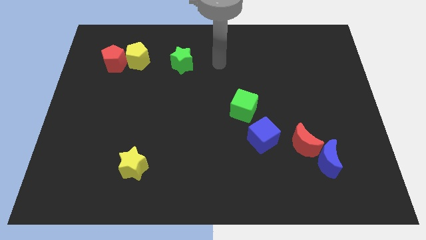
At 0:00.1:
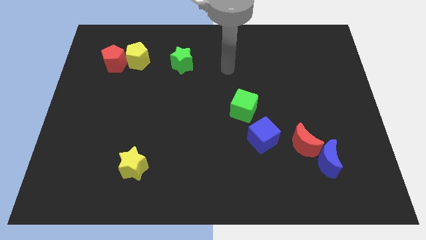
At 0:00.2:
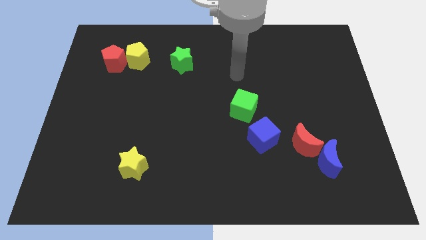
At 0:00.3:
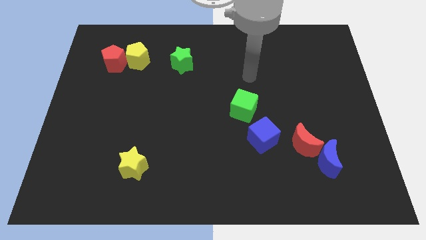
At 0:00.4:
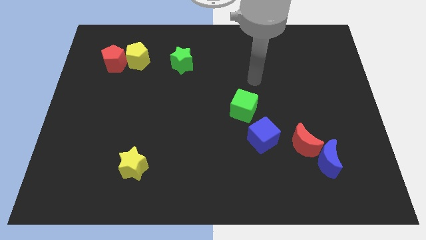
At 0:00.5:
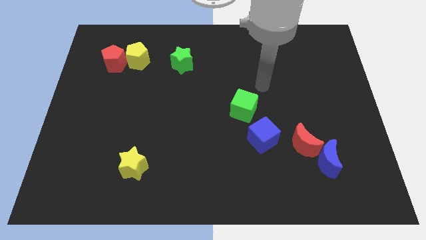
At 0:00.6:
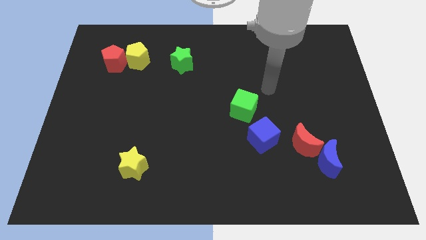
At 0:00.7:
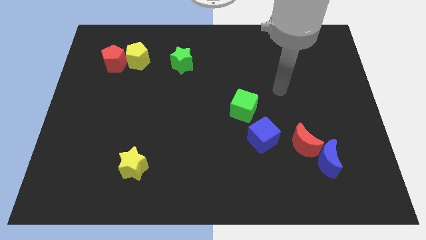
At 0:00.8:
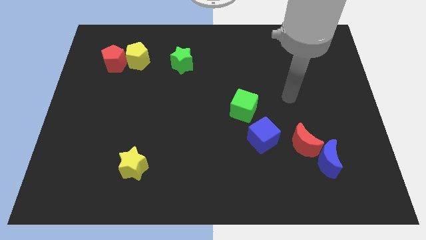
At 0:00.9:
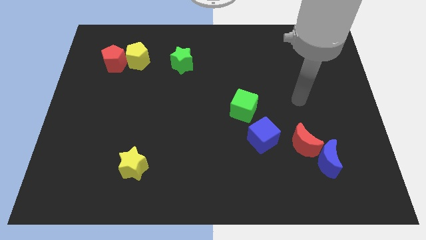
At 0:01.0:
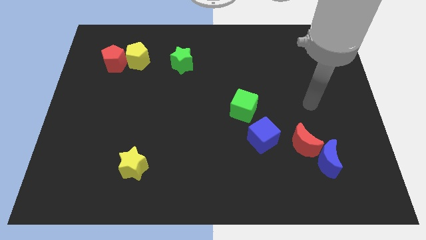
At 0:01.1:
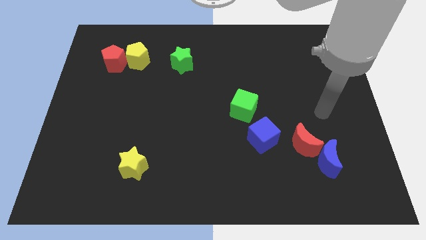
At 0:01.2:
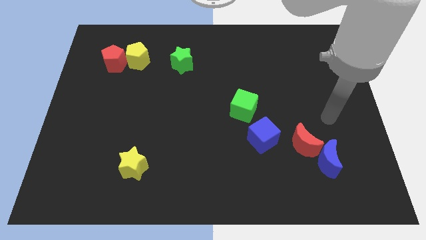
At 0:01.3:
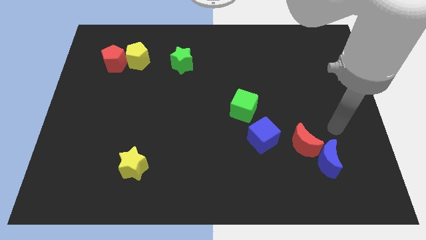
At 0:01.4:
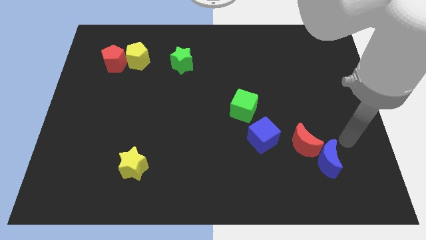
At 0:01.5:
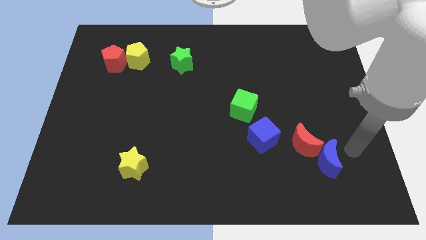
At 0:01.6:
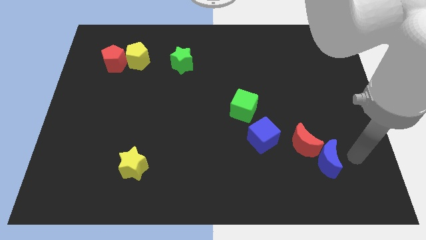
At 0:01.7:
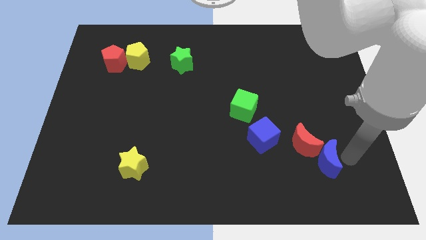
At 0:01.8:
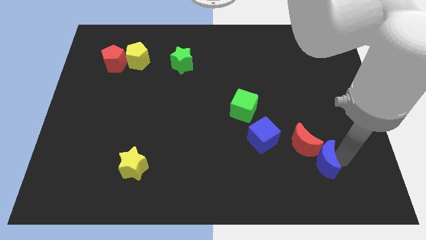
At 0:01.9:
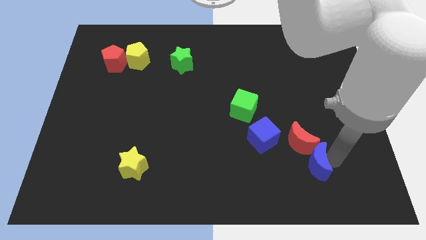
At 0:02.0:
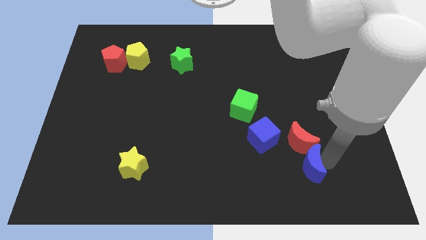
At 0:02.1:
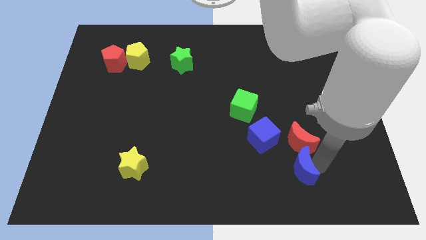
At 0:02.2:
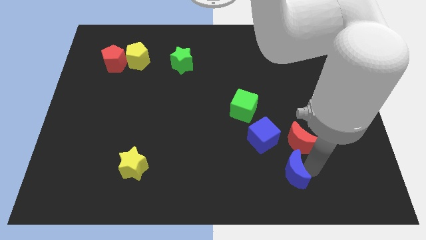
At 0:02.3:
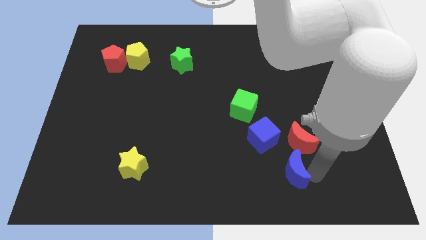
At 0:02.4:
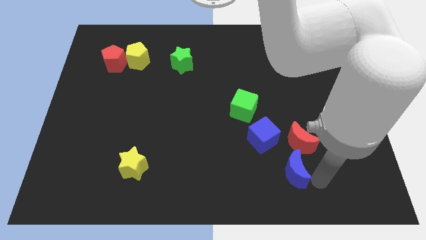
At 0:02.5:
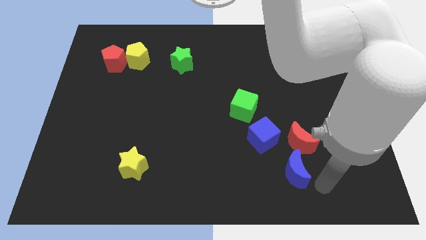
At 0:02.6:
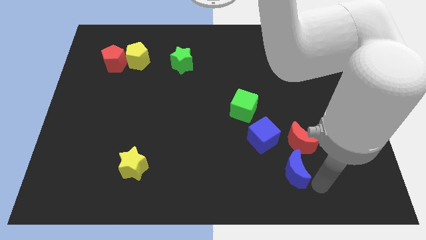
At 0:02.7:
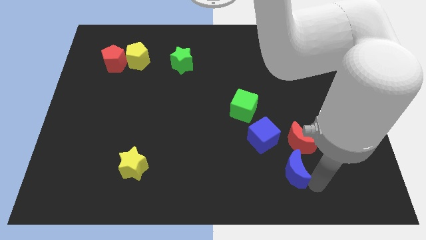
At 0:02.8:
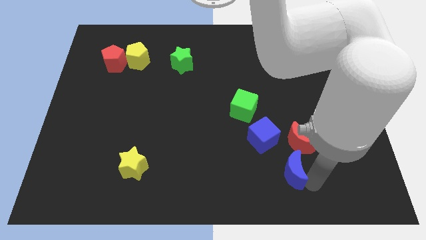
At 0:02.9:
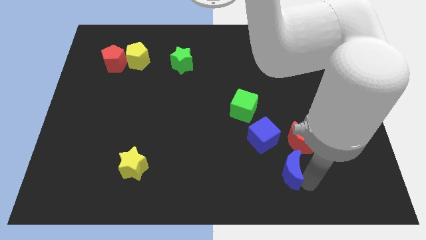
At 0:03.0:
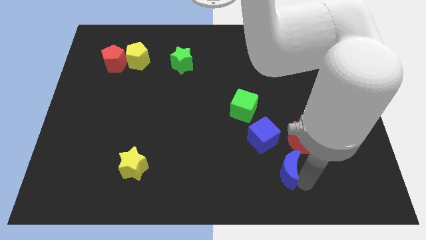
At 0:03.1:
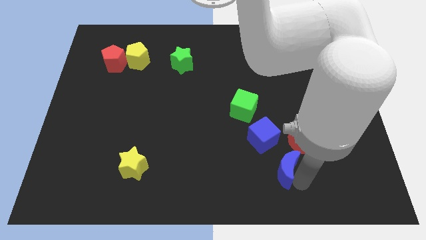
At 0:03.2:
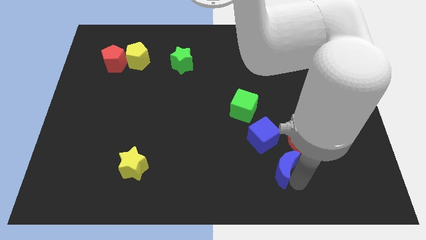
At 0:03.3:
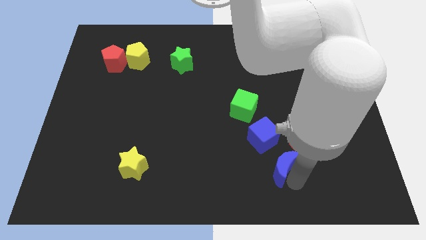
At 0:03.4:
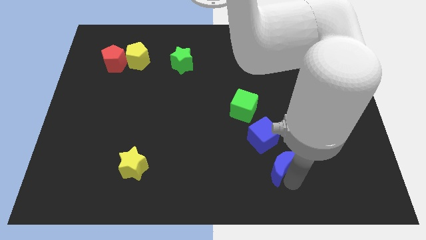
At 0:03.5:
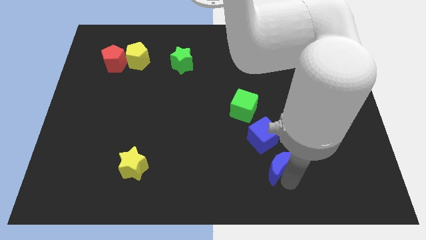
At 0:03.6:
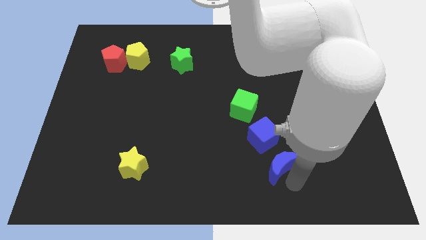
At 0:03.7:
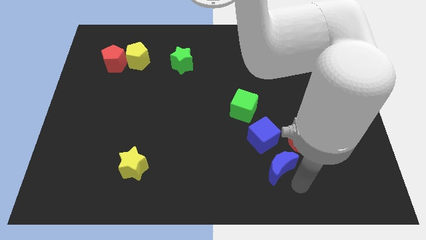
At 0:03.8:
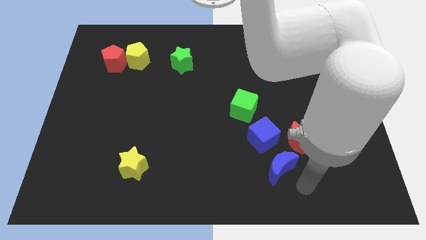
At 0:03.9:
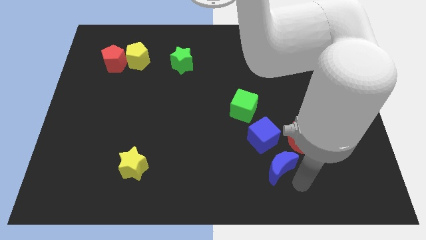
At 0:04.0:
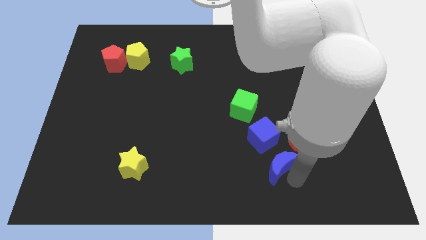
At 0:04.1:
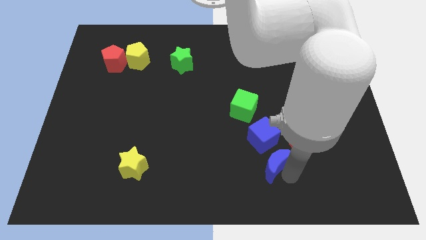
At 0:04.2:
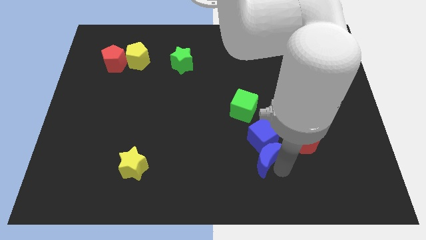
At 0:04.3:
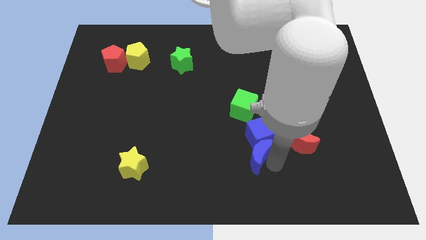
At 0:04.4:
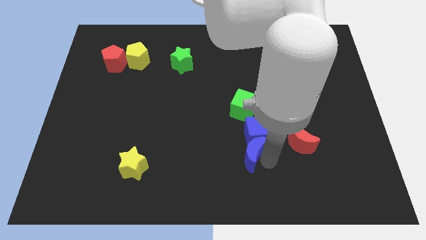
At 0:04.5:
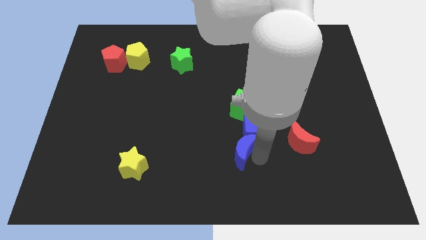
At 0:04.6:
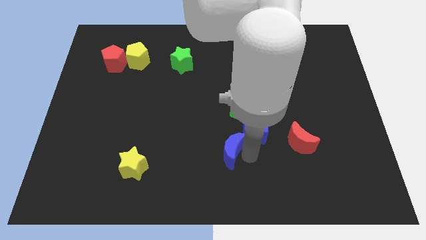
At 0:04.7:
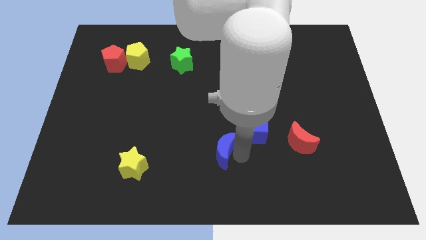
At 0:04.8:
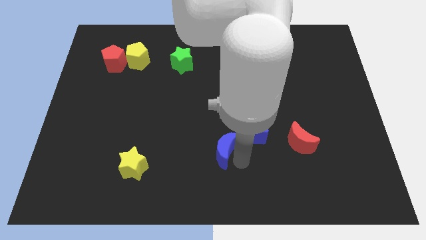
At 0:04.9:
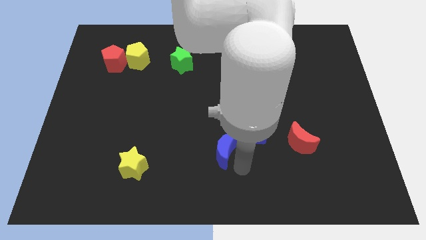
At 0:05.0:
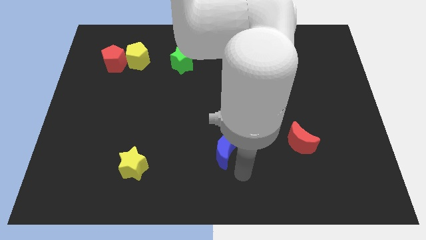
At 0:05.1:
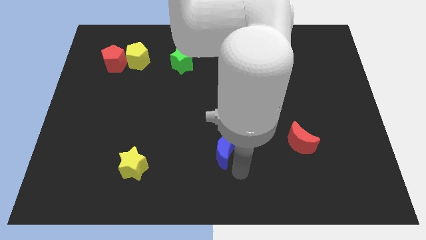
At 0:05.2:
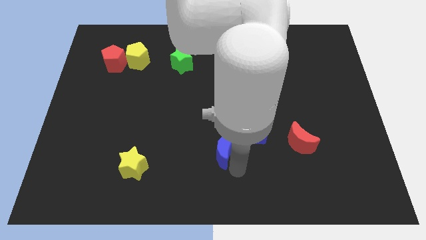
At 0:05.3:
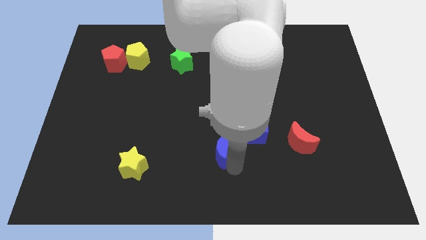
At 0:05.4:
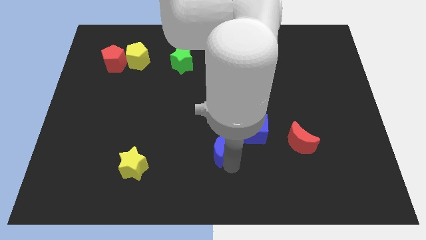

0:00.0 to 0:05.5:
slide the blue moon to the left of the blue cube

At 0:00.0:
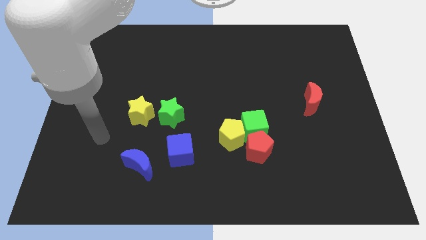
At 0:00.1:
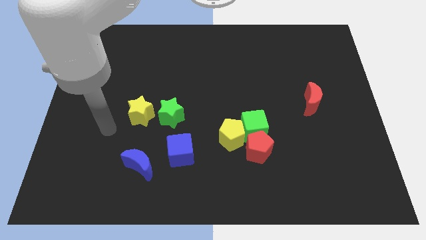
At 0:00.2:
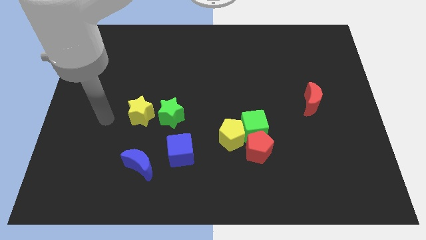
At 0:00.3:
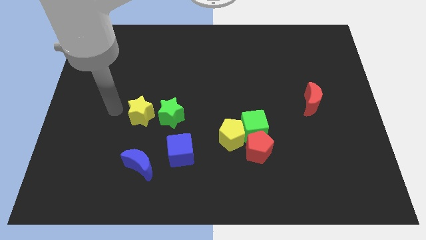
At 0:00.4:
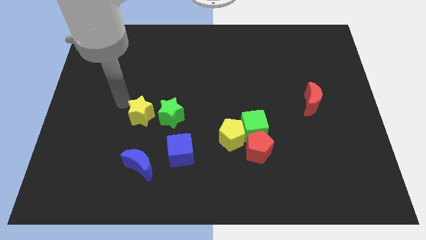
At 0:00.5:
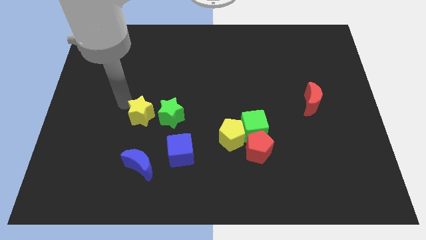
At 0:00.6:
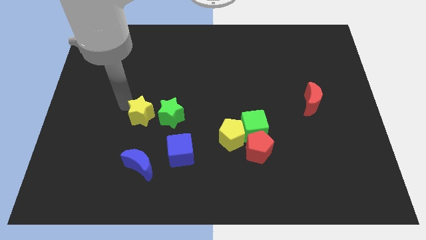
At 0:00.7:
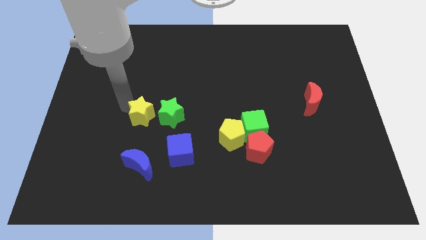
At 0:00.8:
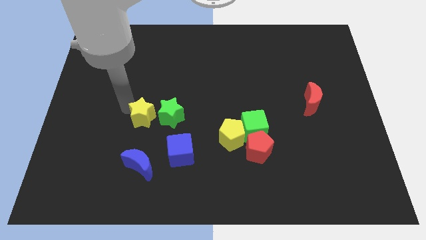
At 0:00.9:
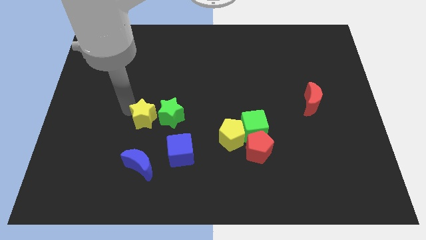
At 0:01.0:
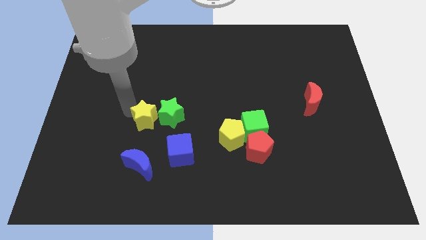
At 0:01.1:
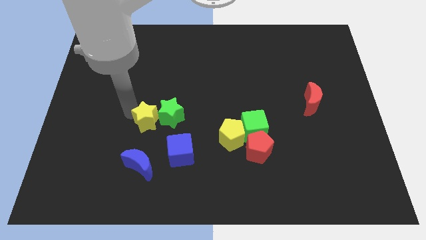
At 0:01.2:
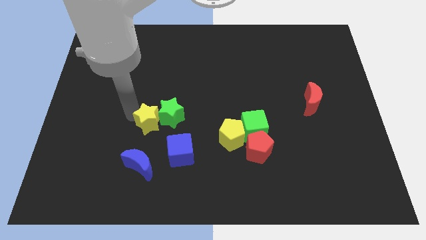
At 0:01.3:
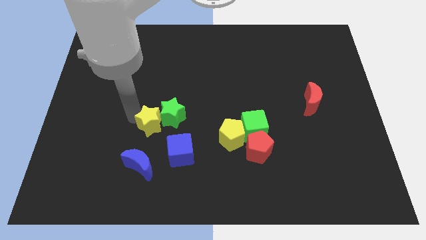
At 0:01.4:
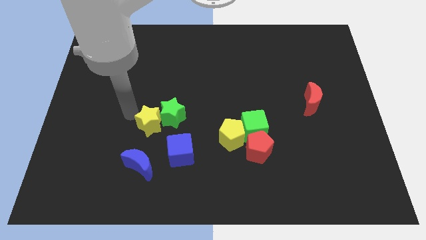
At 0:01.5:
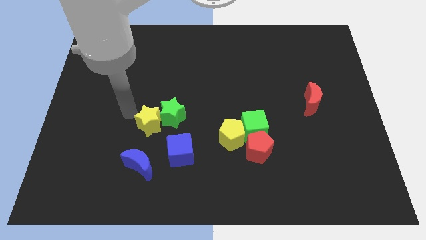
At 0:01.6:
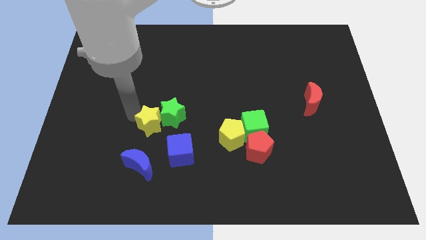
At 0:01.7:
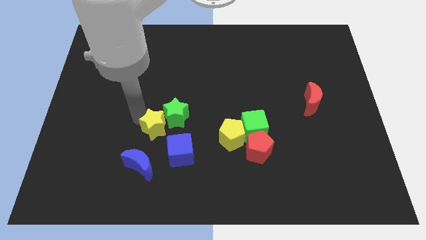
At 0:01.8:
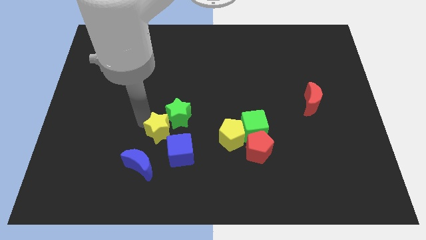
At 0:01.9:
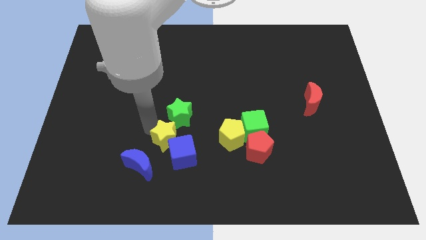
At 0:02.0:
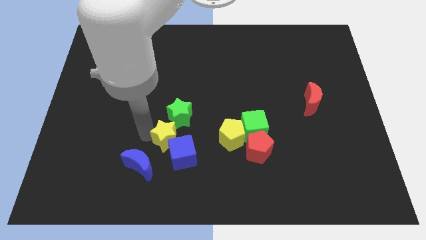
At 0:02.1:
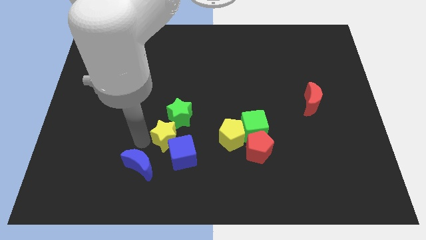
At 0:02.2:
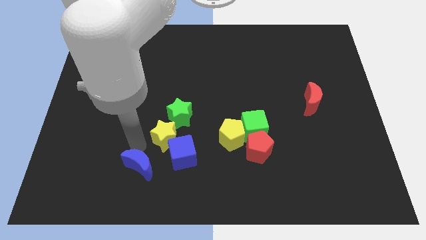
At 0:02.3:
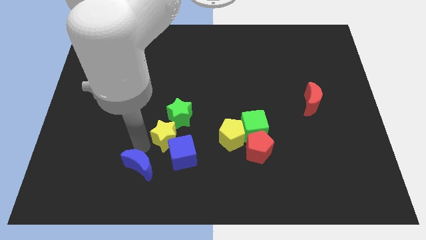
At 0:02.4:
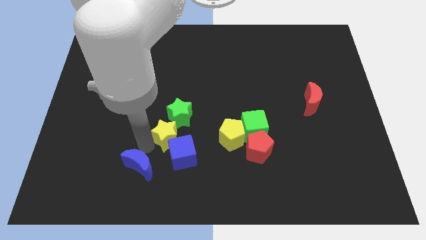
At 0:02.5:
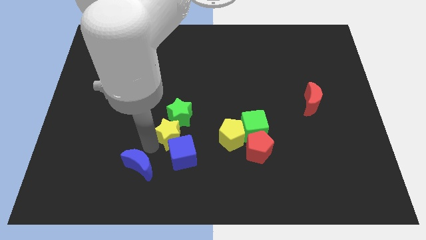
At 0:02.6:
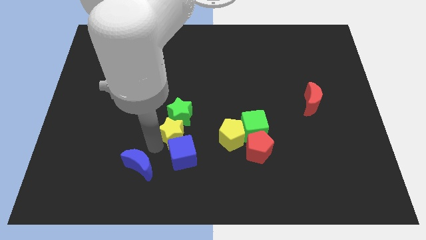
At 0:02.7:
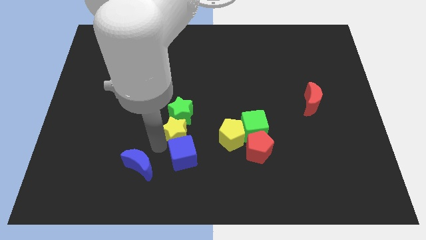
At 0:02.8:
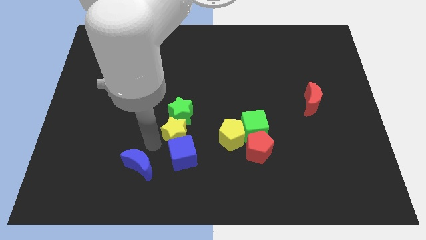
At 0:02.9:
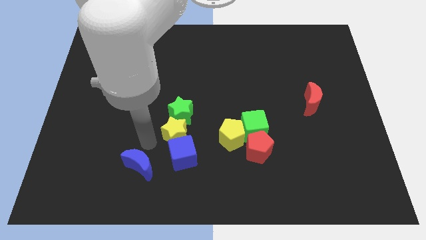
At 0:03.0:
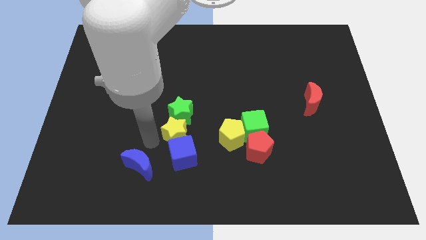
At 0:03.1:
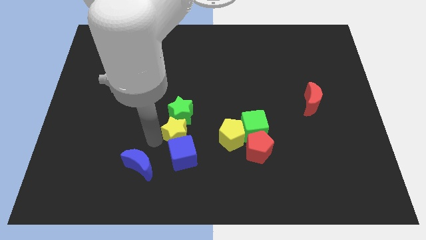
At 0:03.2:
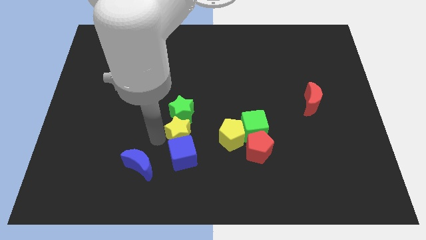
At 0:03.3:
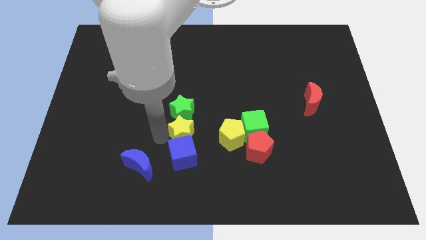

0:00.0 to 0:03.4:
move the yellow star just left of the green cube
